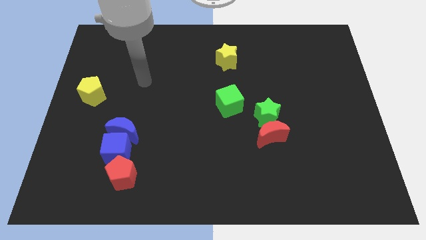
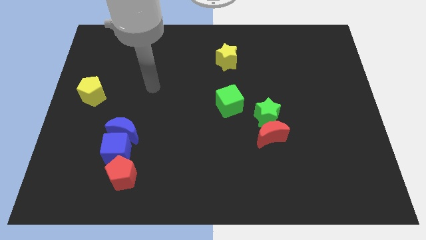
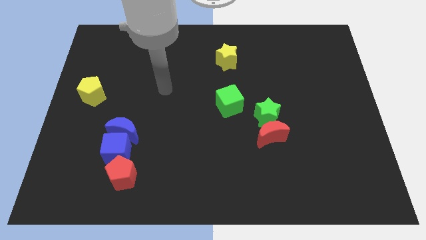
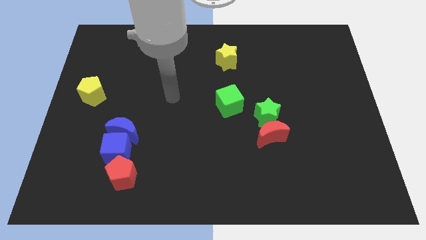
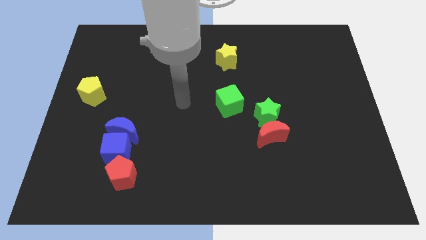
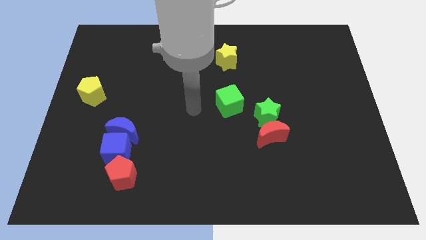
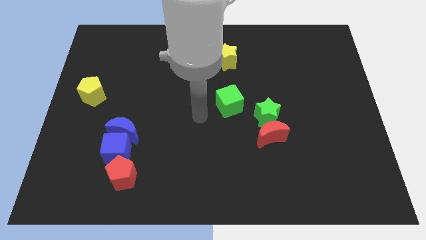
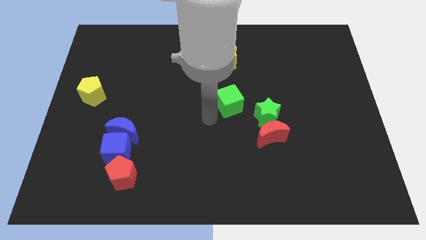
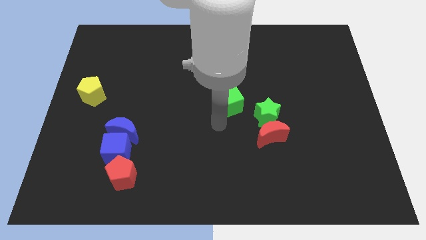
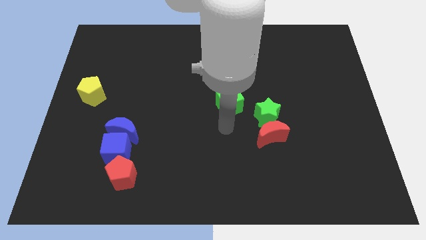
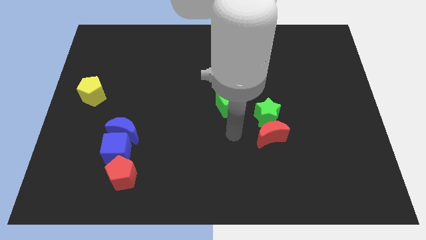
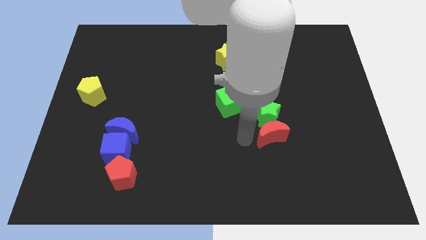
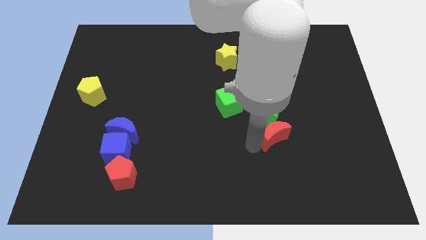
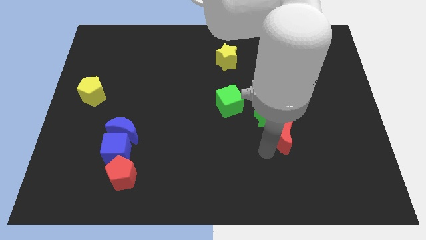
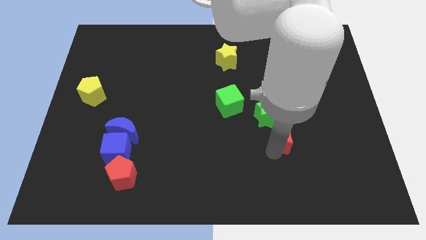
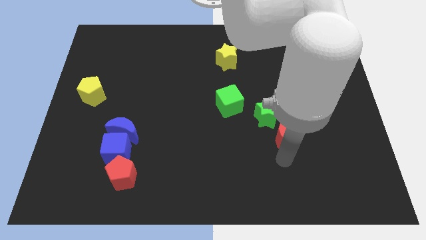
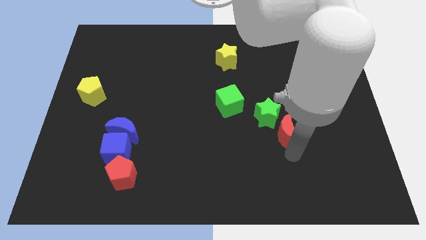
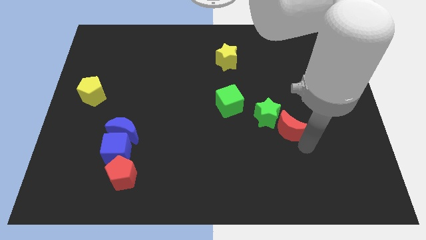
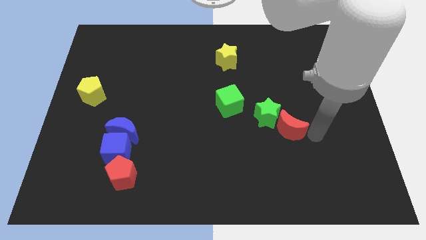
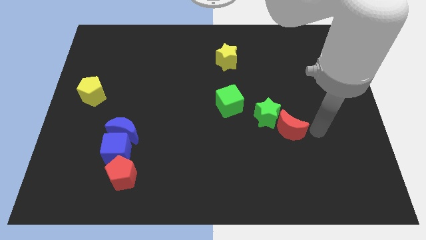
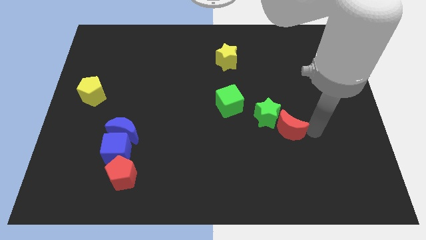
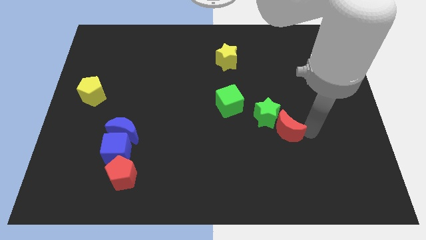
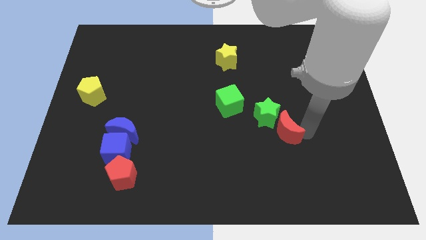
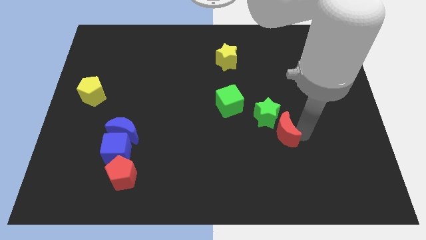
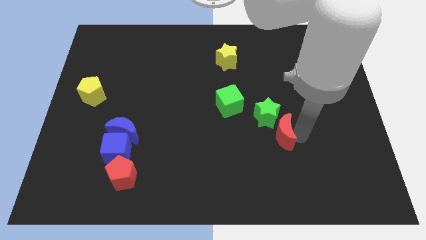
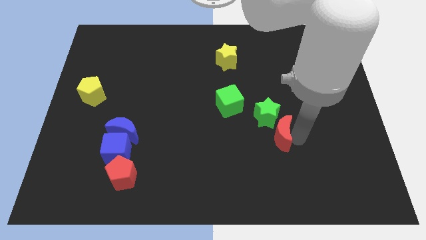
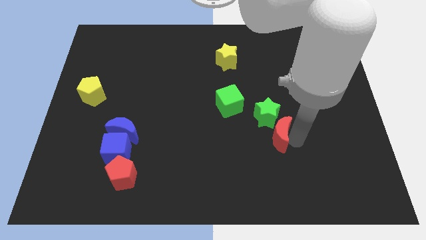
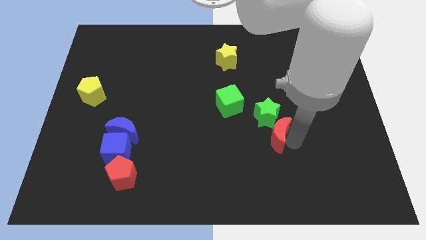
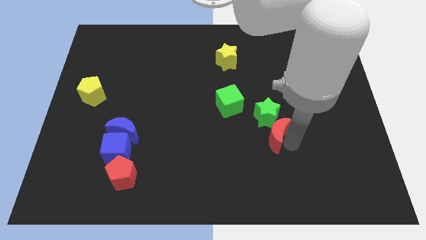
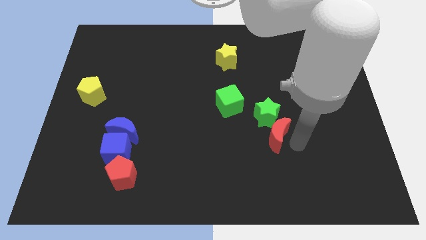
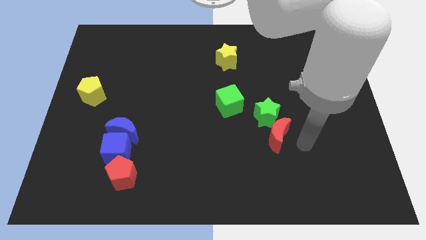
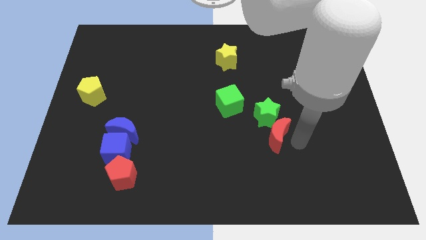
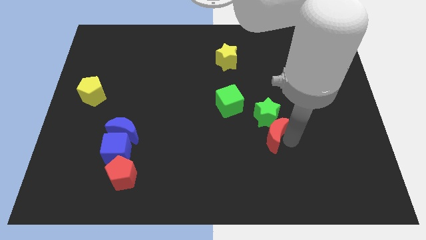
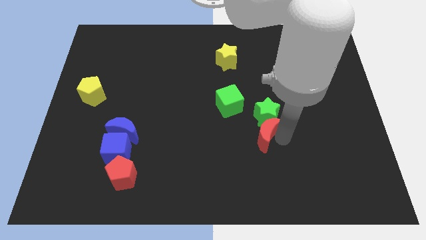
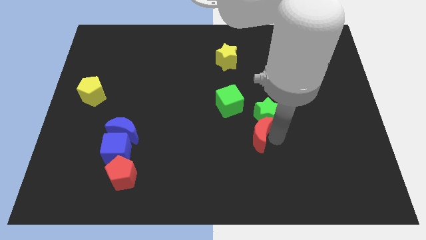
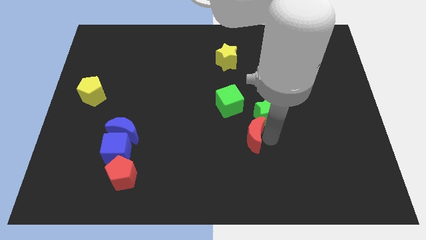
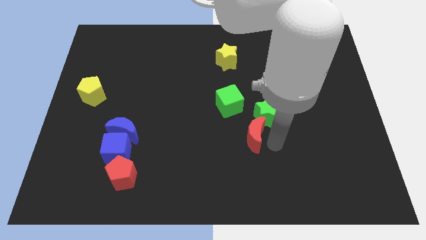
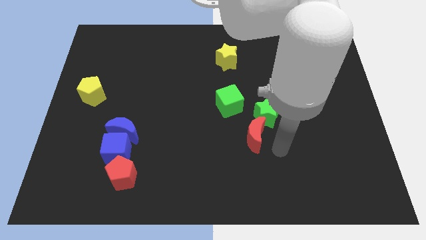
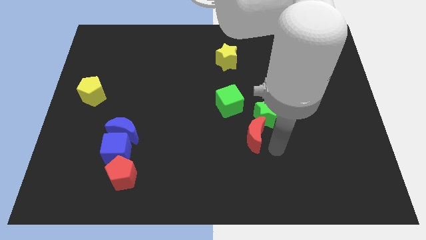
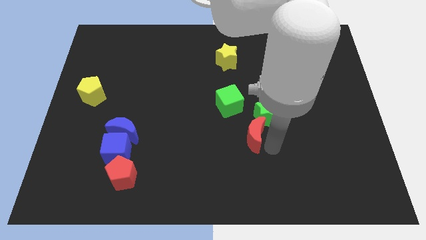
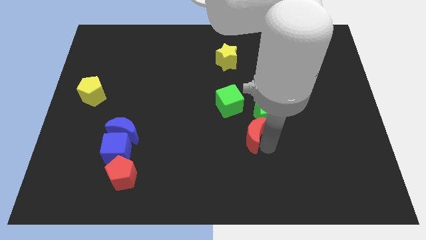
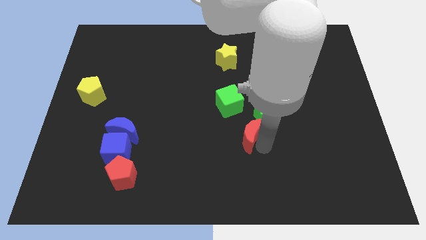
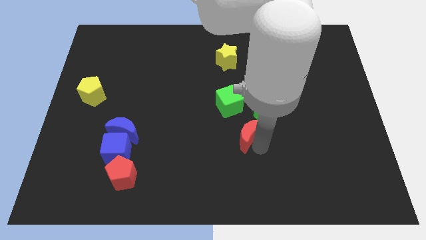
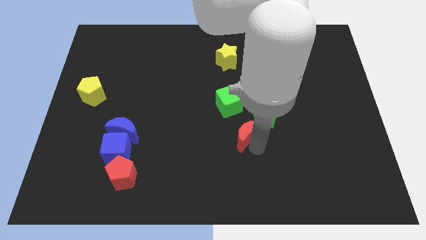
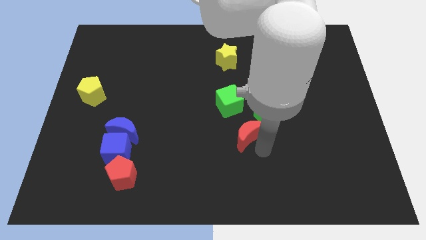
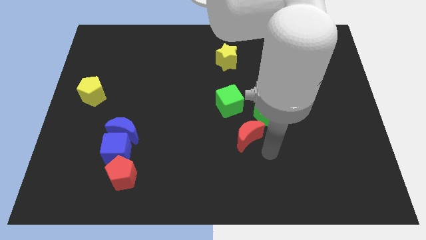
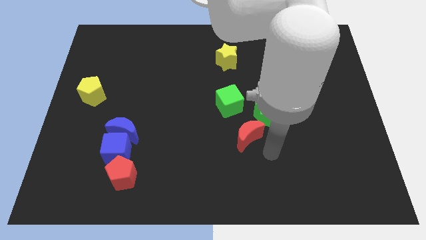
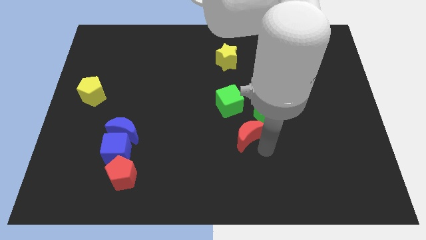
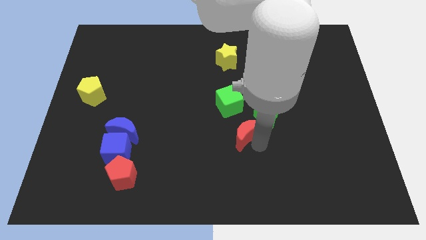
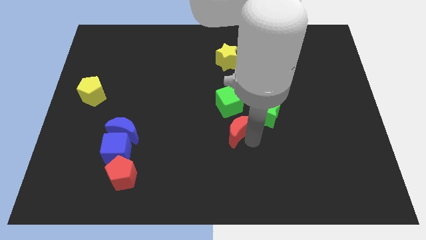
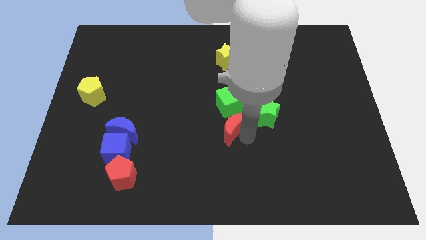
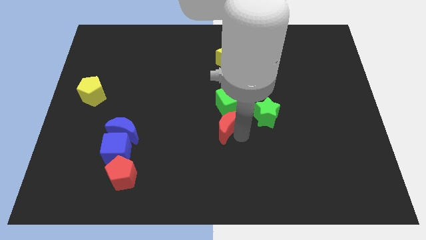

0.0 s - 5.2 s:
push the red moon a bit diagonally up and to the left

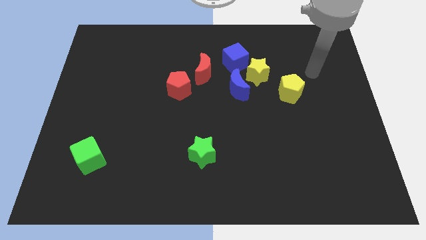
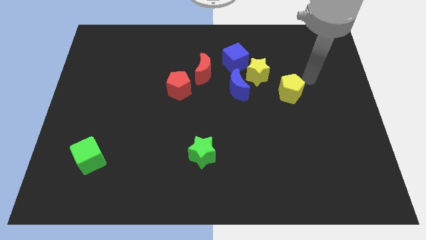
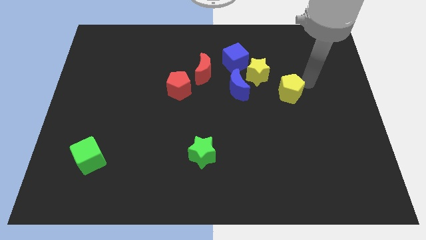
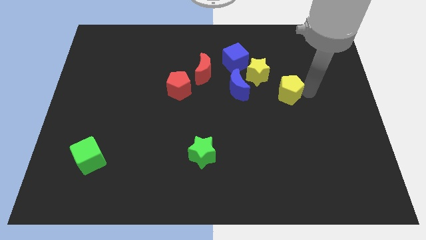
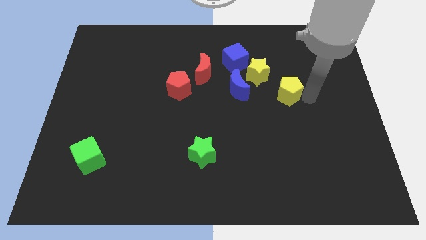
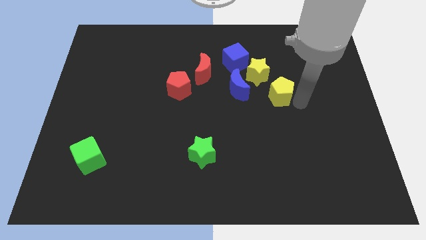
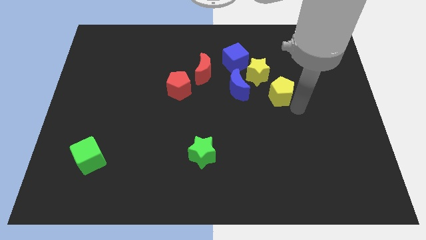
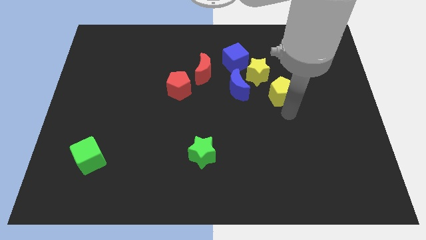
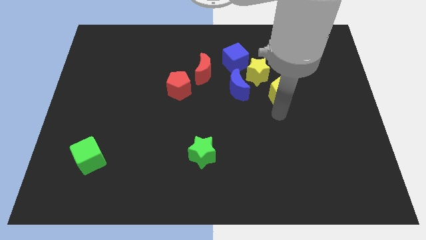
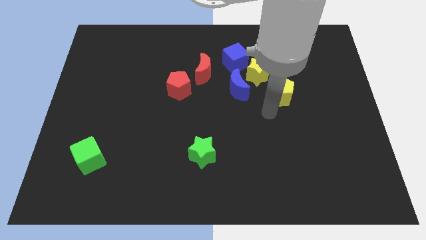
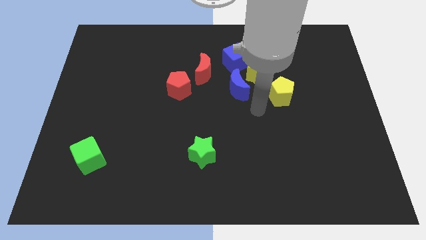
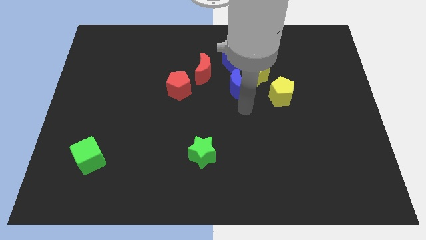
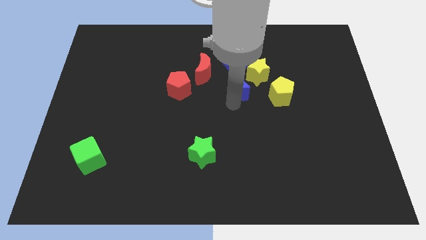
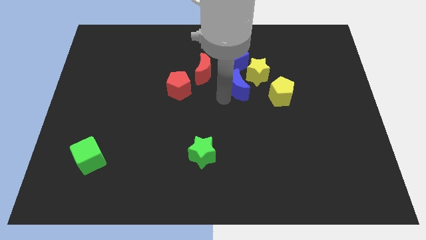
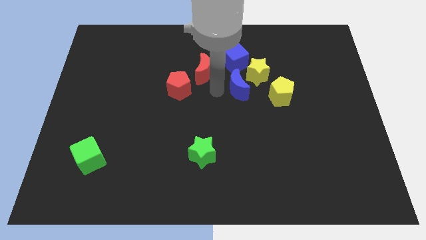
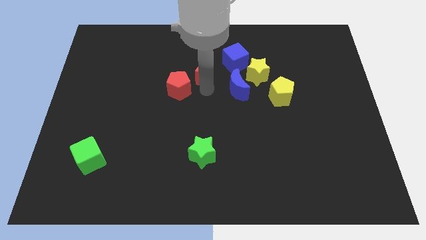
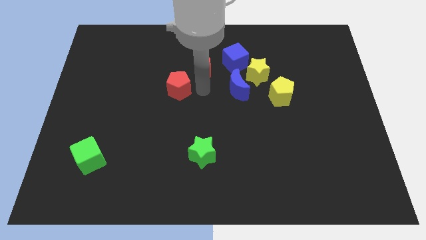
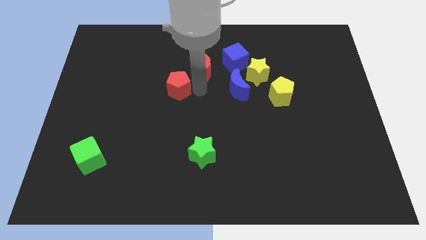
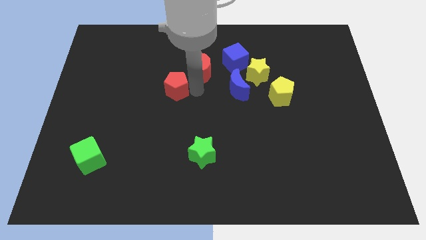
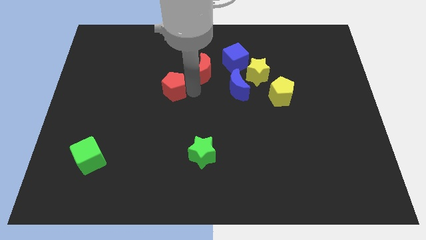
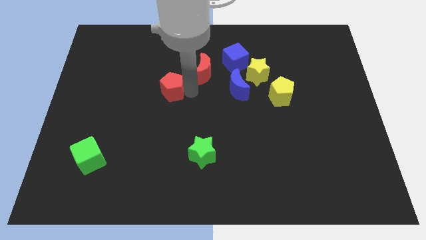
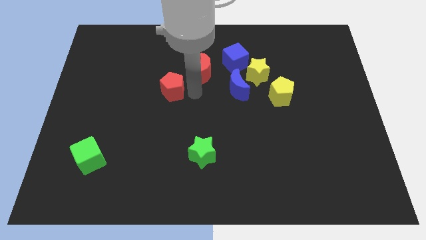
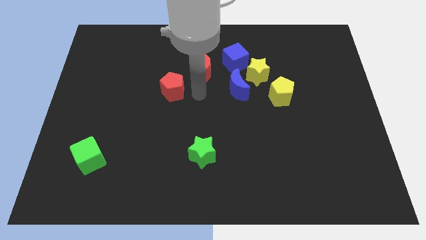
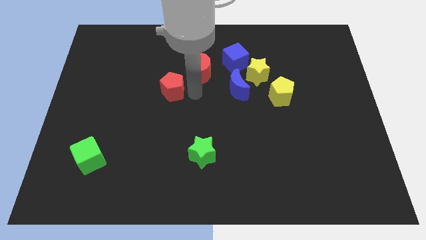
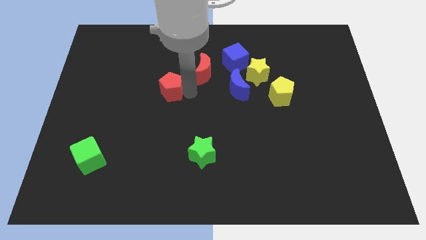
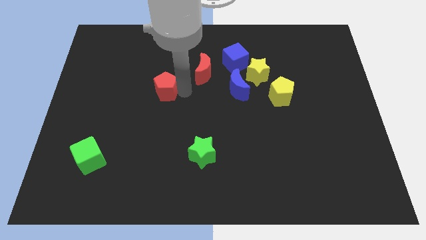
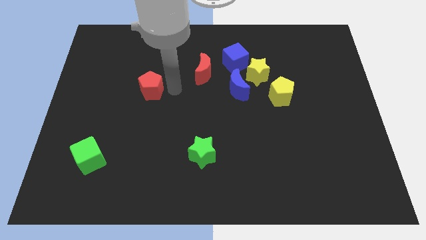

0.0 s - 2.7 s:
move the red pentagon to the left slightly

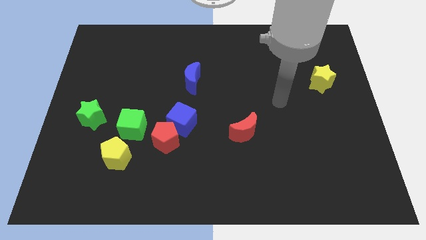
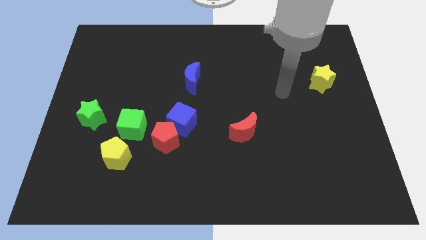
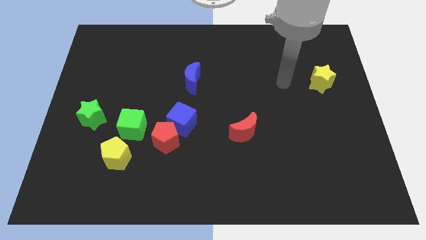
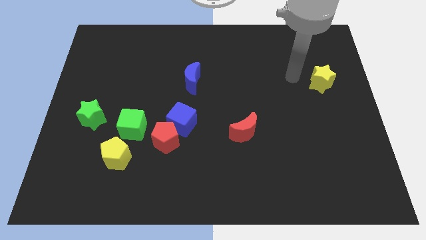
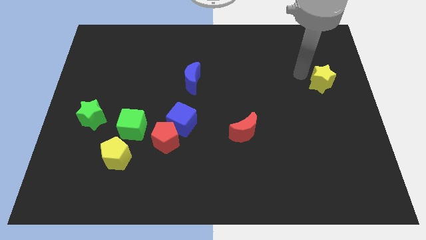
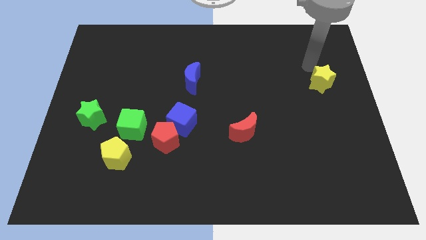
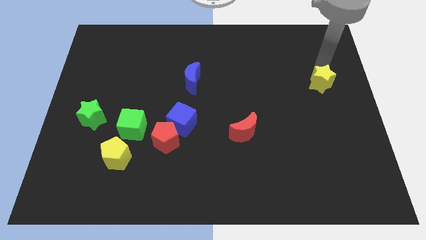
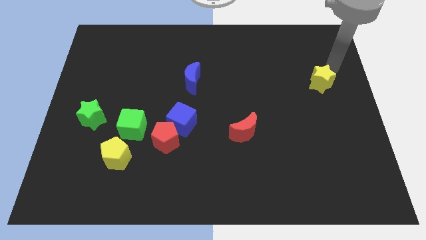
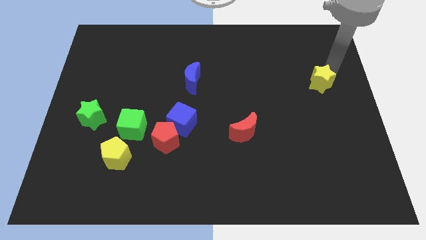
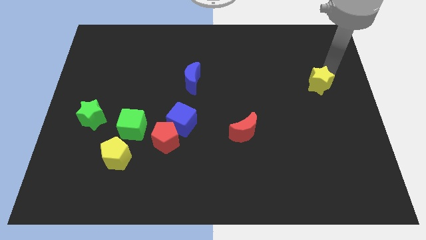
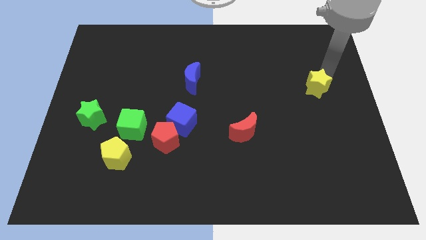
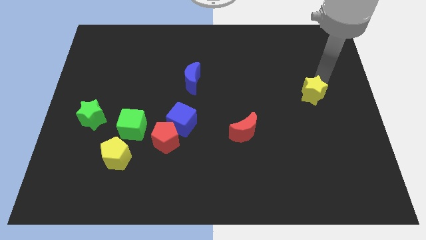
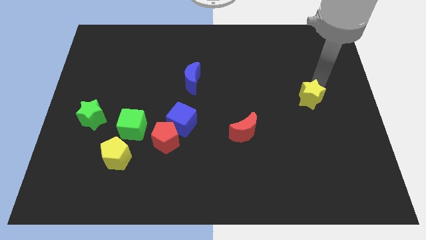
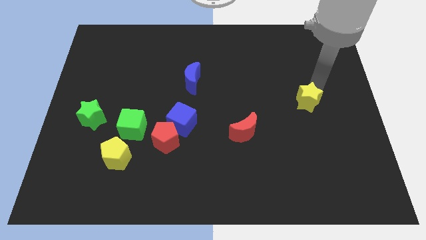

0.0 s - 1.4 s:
slightly push the yellow star diagonally downwards and to the left
